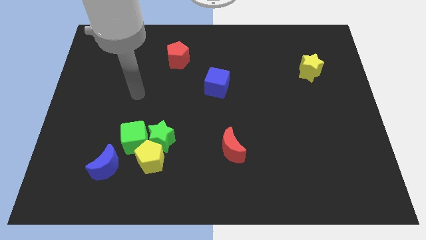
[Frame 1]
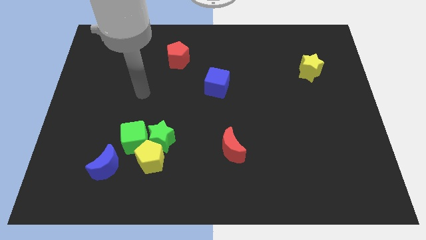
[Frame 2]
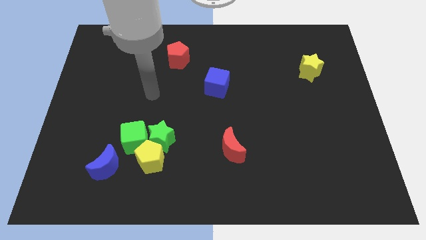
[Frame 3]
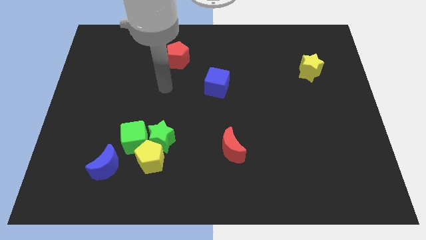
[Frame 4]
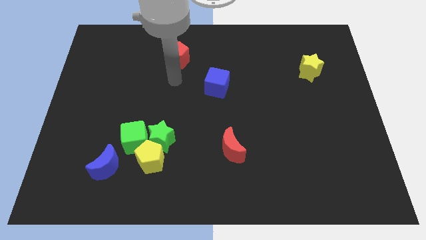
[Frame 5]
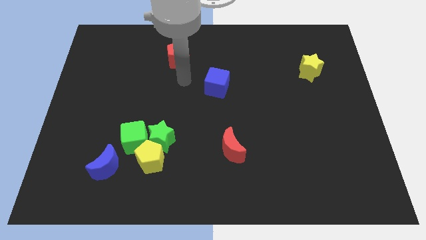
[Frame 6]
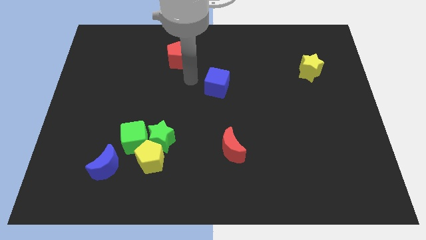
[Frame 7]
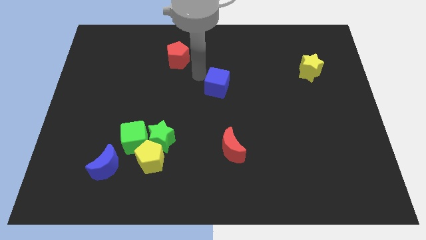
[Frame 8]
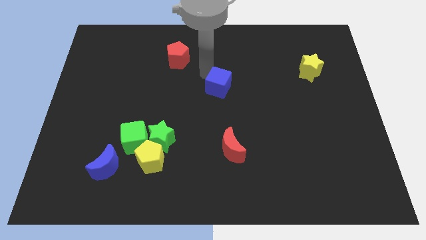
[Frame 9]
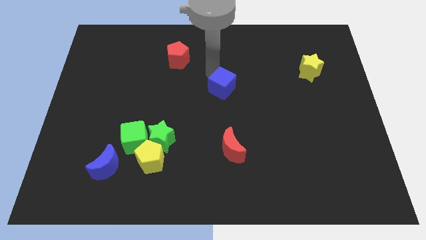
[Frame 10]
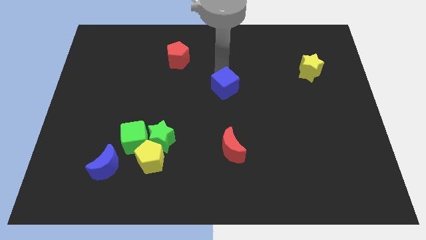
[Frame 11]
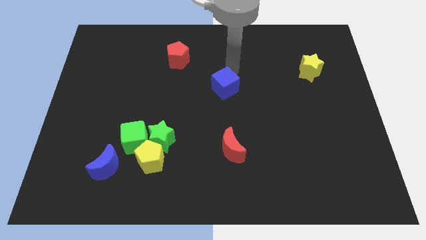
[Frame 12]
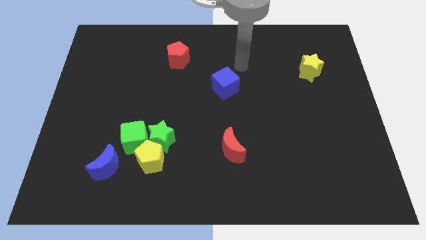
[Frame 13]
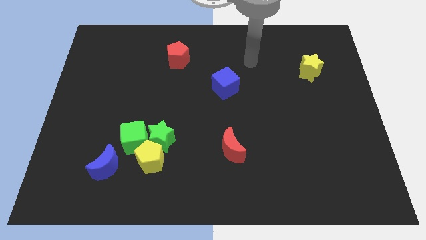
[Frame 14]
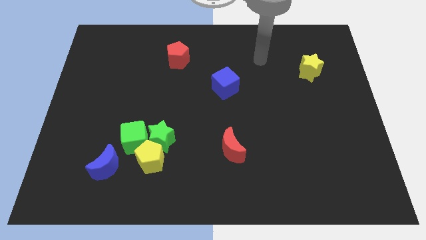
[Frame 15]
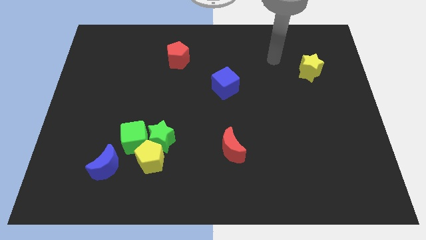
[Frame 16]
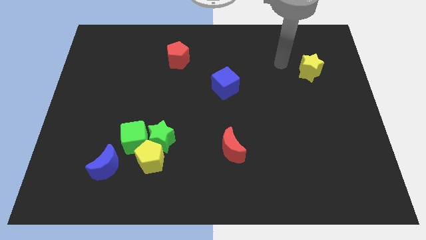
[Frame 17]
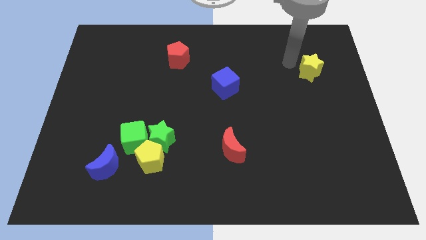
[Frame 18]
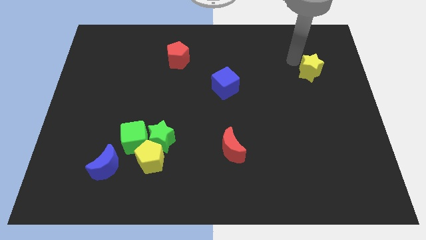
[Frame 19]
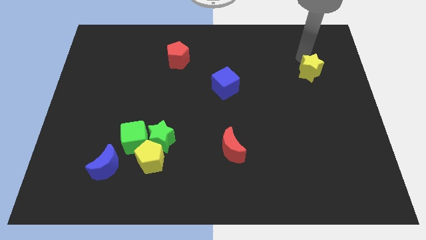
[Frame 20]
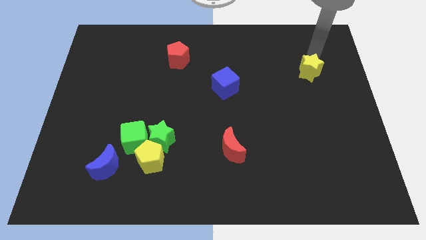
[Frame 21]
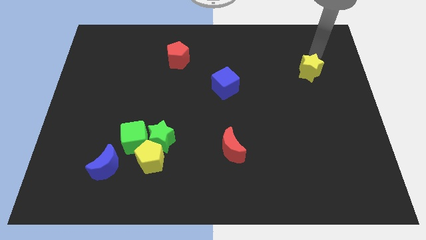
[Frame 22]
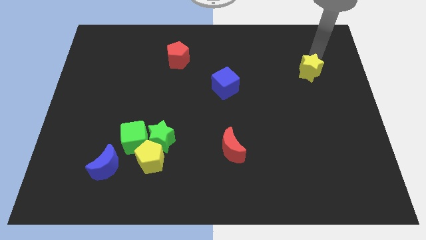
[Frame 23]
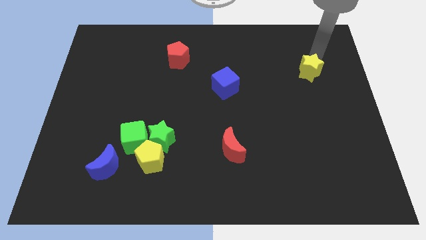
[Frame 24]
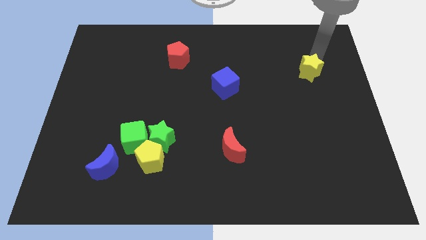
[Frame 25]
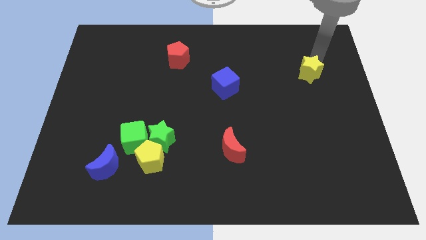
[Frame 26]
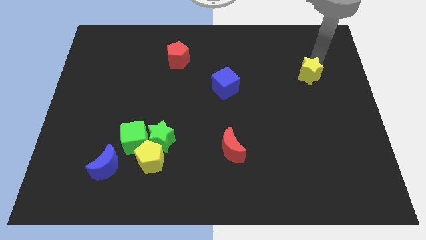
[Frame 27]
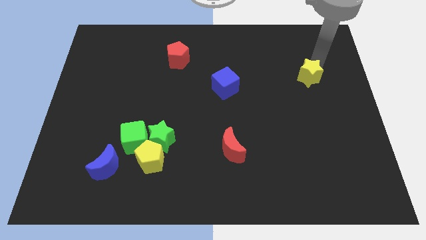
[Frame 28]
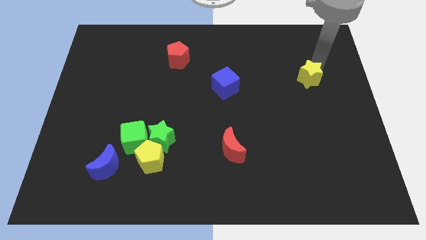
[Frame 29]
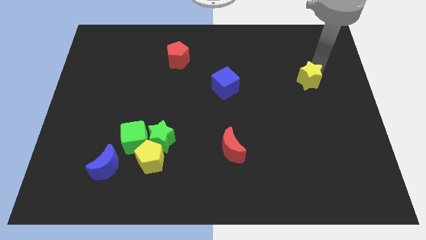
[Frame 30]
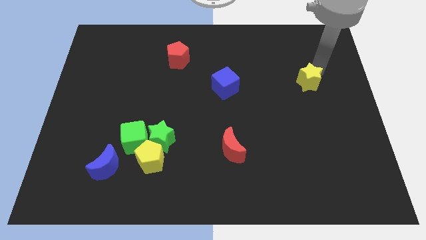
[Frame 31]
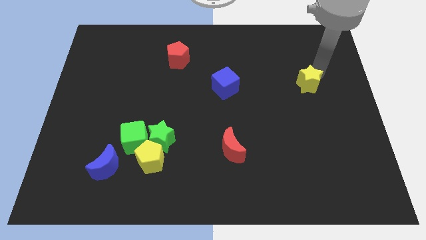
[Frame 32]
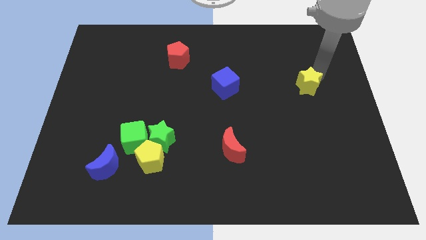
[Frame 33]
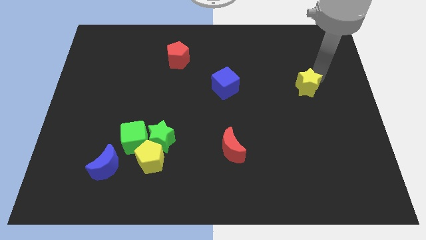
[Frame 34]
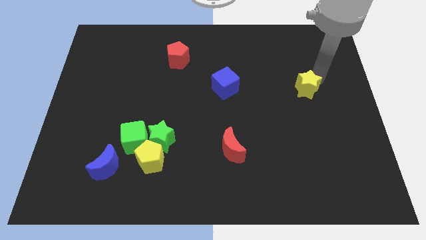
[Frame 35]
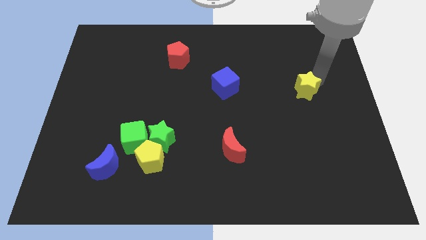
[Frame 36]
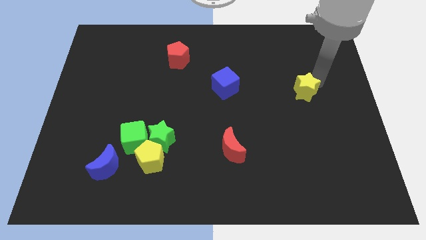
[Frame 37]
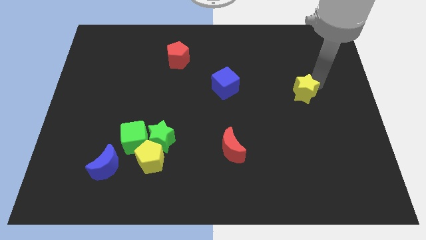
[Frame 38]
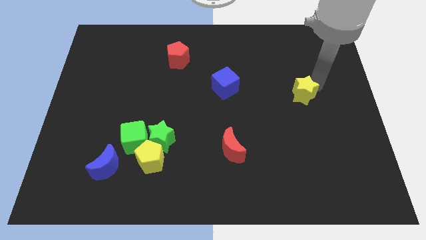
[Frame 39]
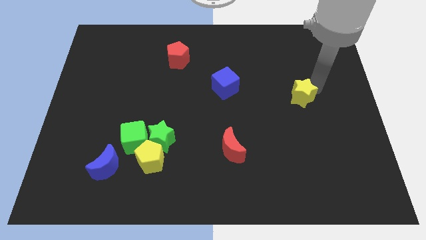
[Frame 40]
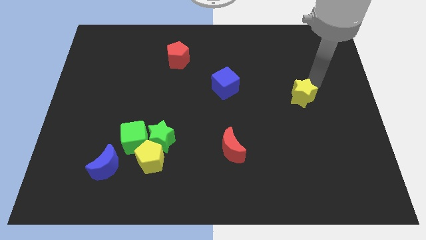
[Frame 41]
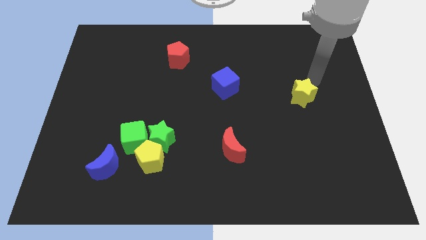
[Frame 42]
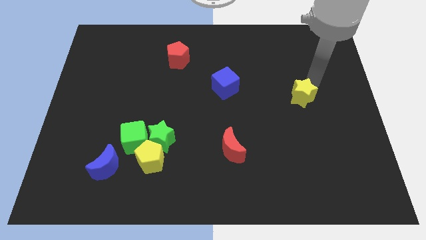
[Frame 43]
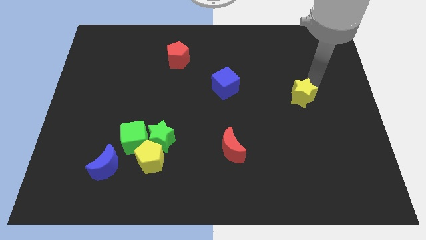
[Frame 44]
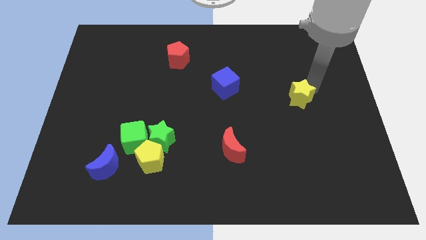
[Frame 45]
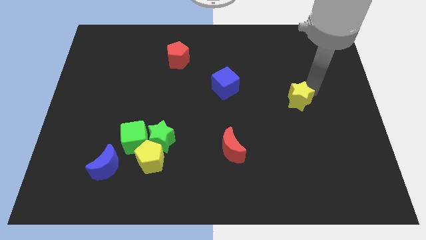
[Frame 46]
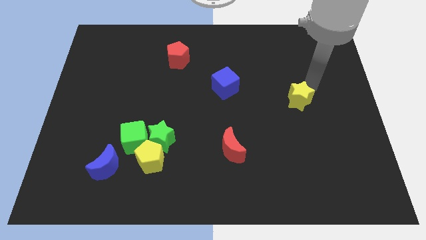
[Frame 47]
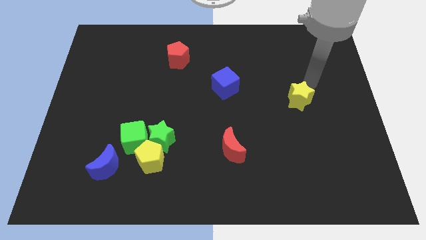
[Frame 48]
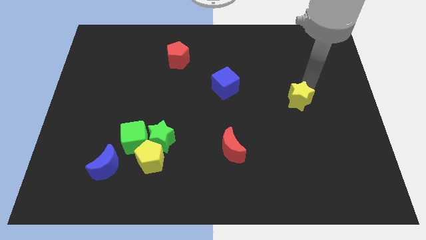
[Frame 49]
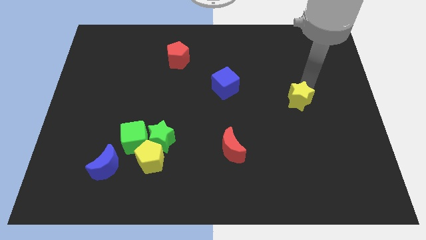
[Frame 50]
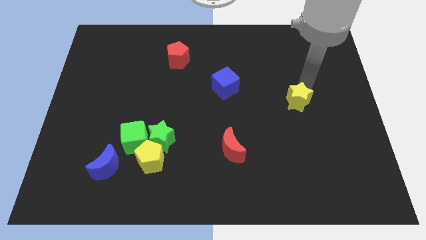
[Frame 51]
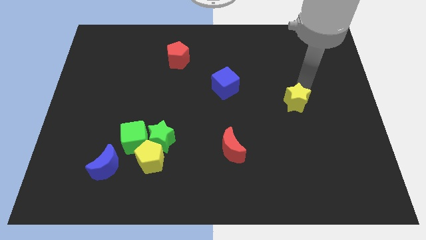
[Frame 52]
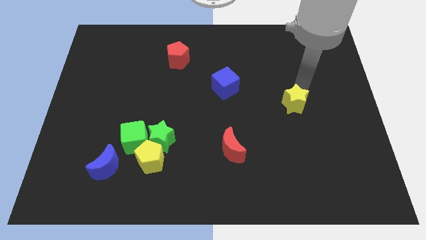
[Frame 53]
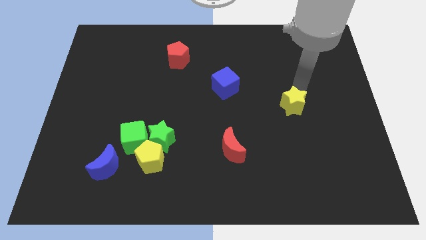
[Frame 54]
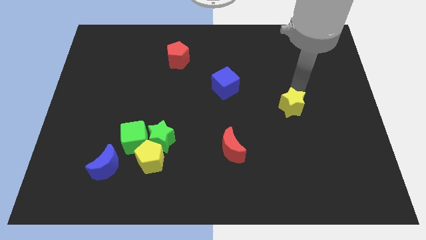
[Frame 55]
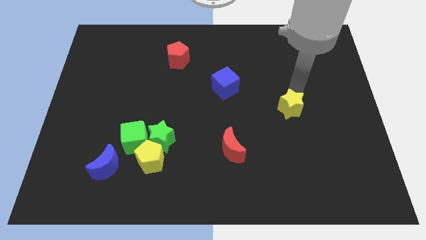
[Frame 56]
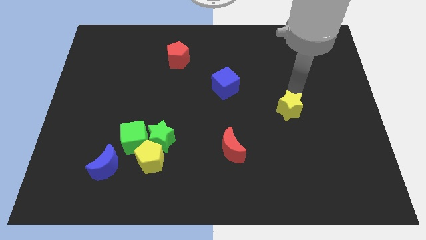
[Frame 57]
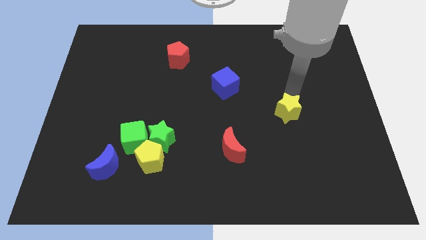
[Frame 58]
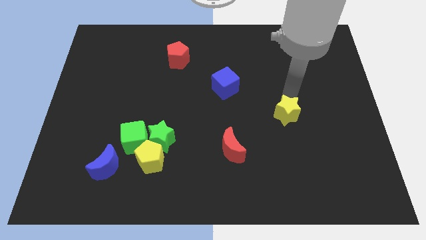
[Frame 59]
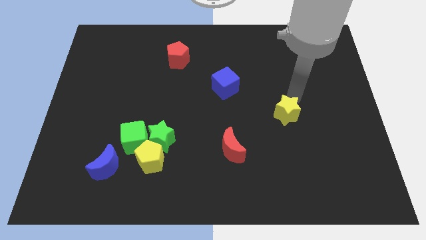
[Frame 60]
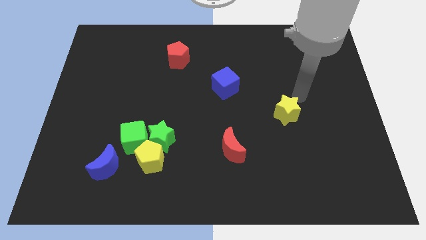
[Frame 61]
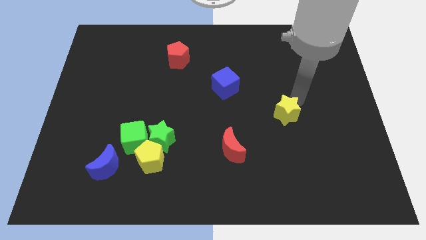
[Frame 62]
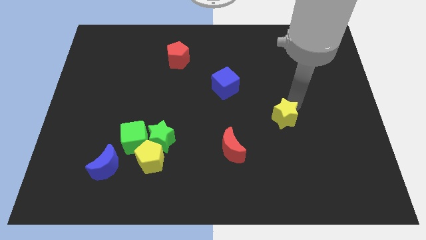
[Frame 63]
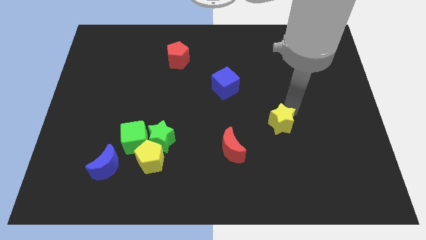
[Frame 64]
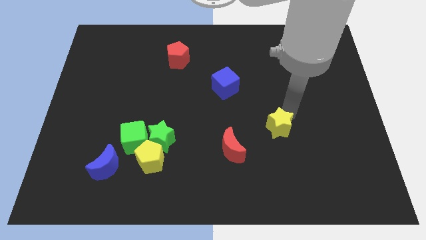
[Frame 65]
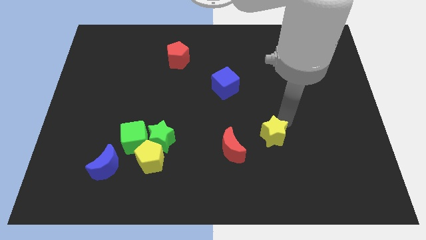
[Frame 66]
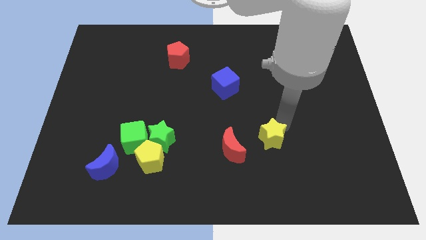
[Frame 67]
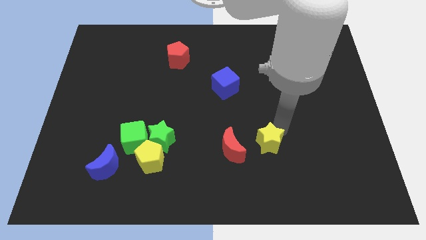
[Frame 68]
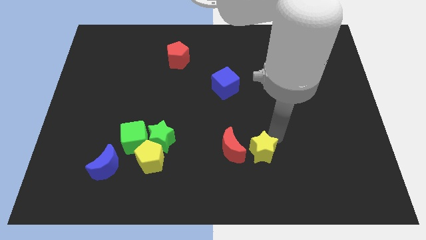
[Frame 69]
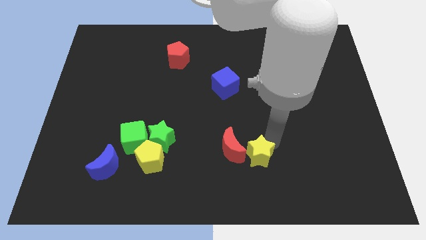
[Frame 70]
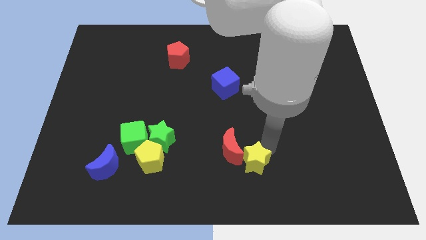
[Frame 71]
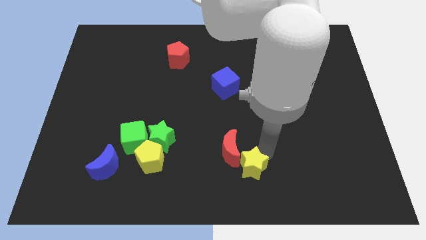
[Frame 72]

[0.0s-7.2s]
push the yellow star to the bottom
